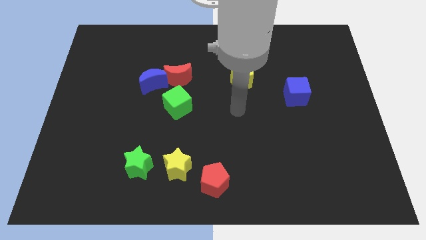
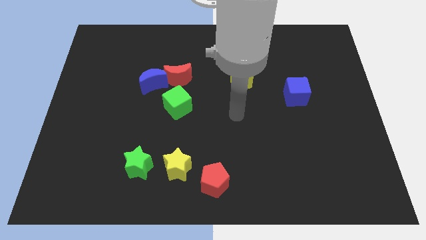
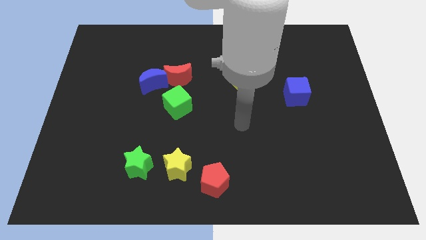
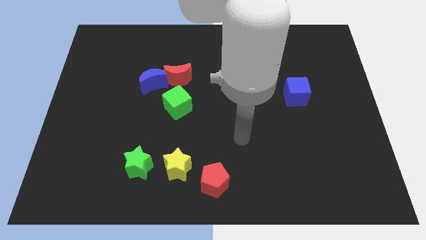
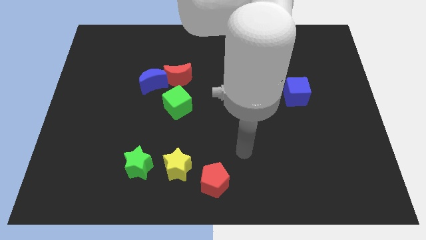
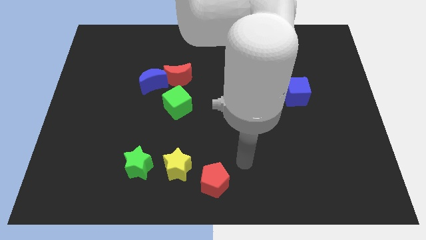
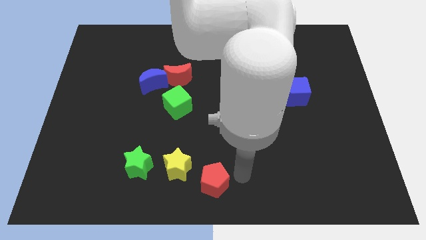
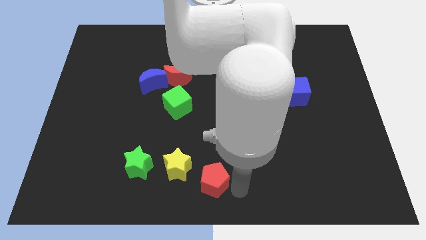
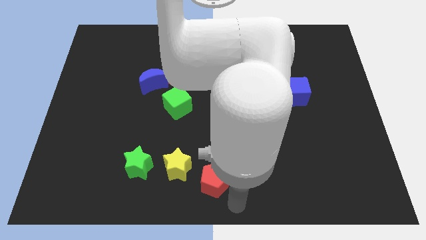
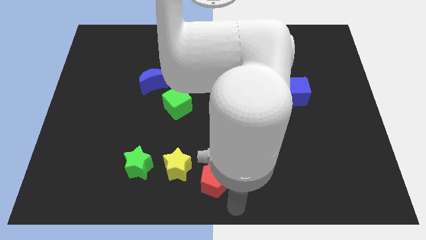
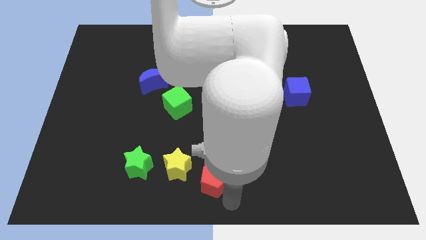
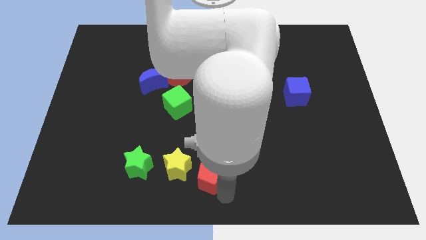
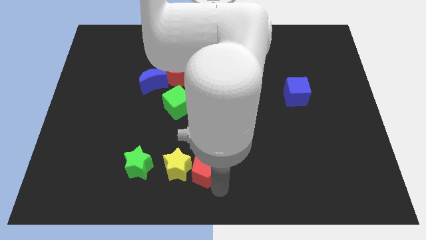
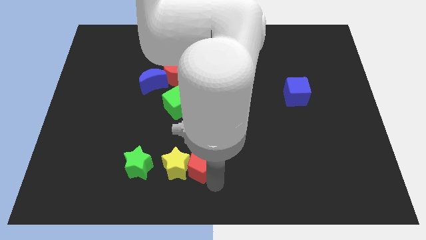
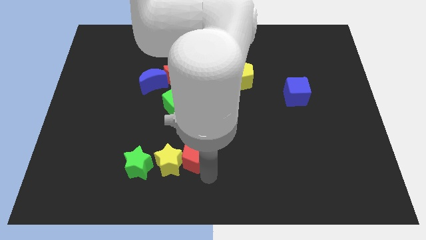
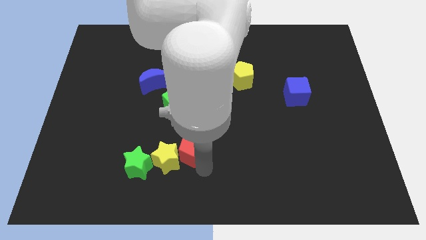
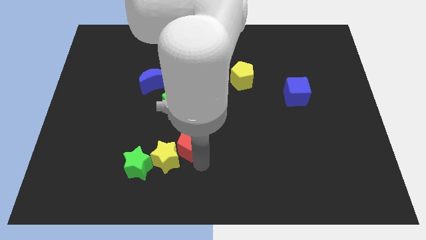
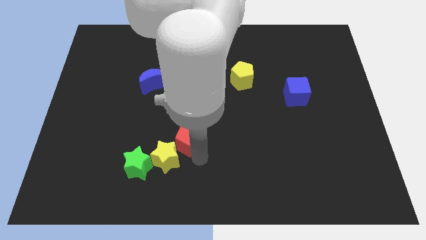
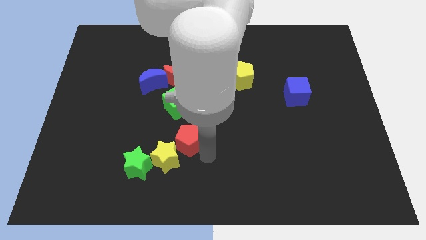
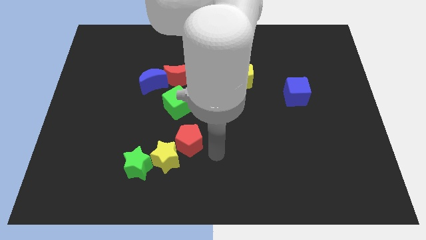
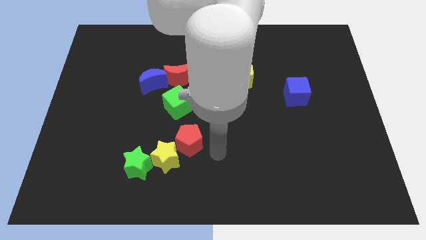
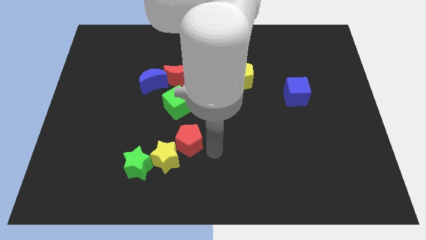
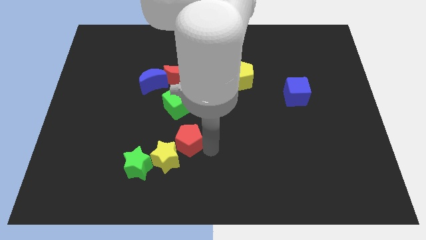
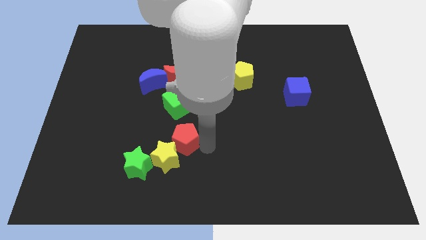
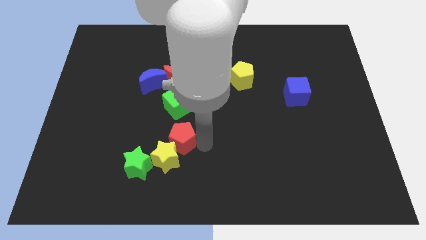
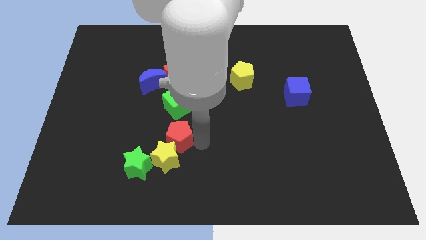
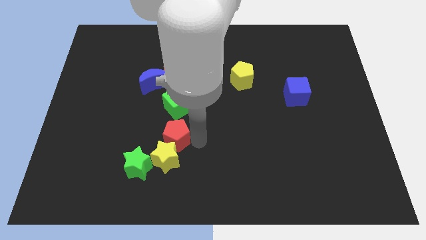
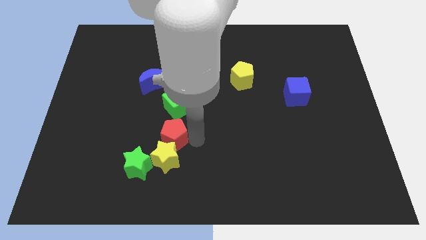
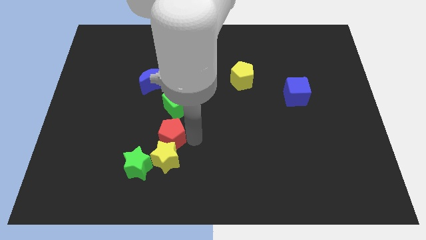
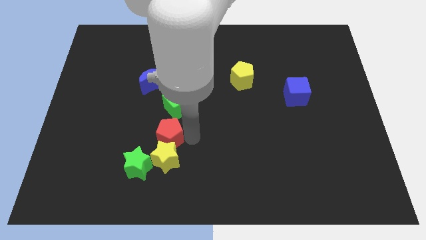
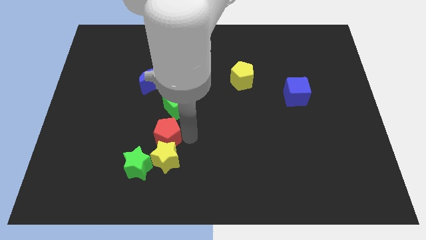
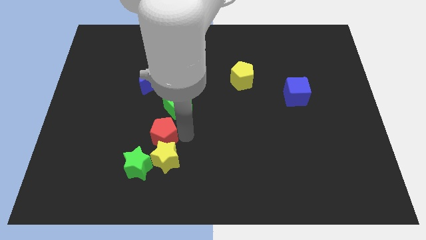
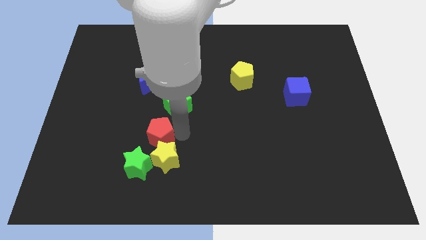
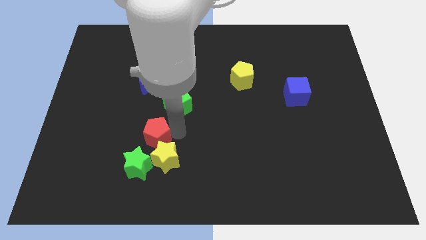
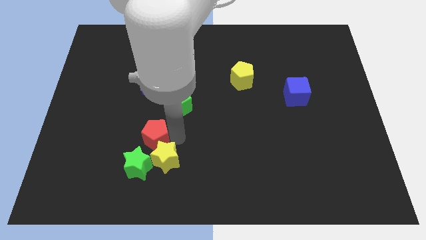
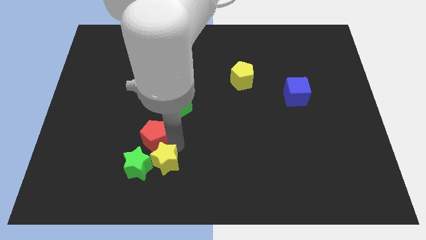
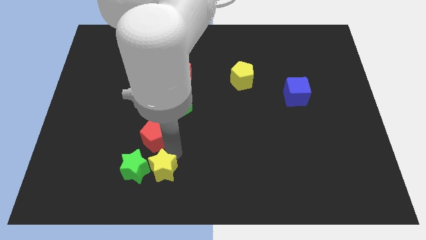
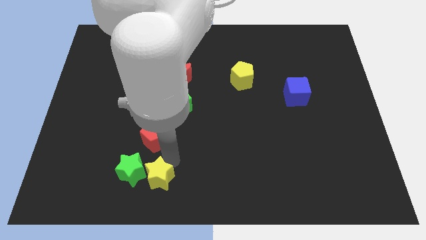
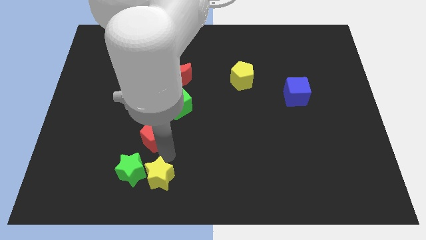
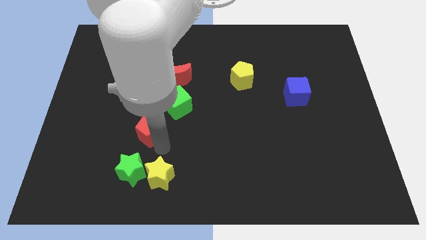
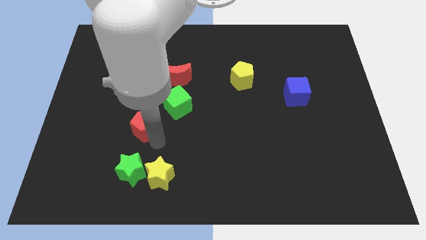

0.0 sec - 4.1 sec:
slide the red pentagon up and to the left diagonally

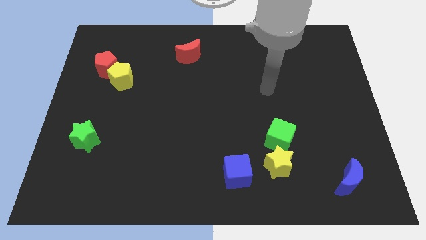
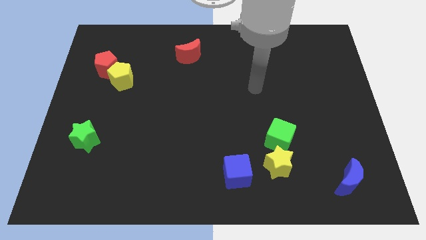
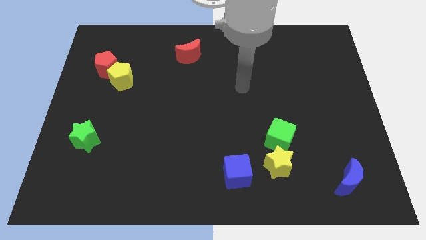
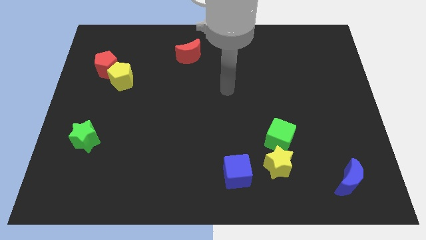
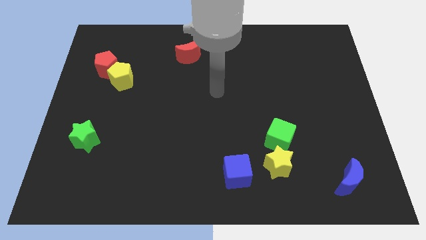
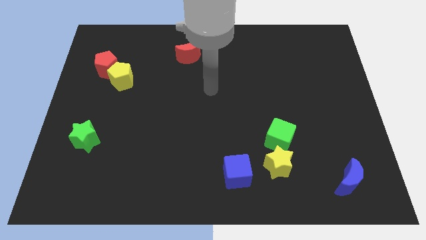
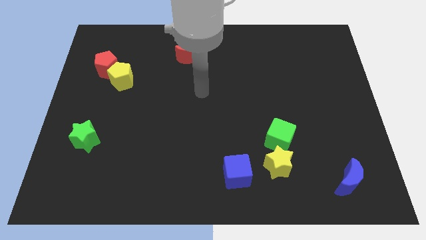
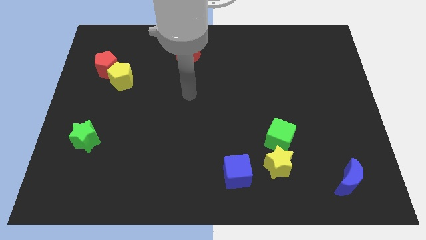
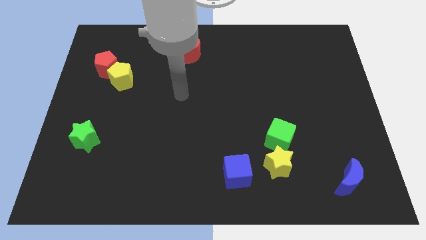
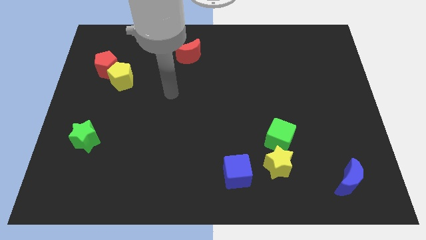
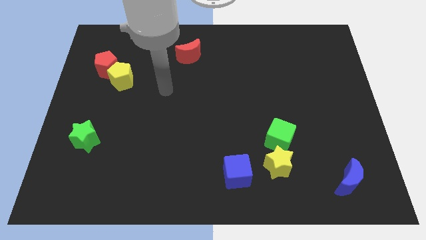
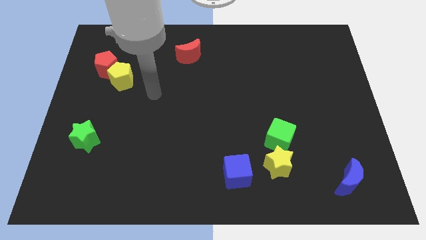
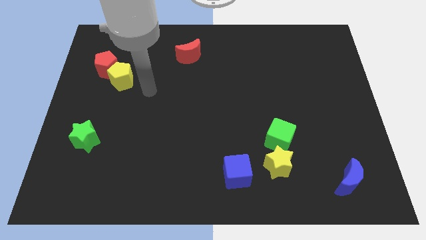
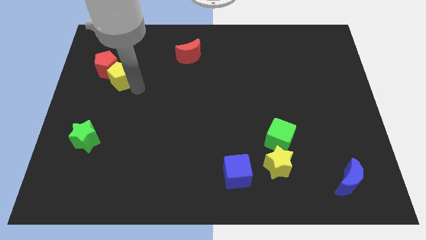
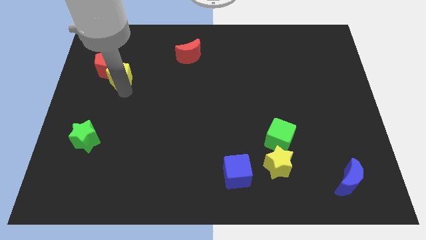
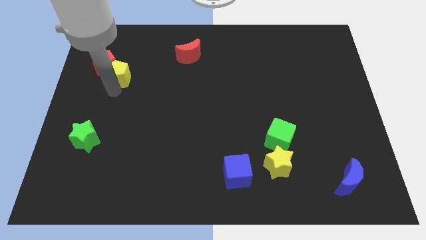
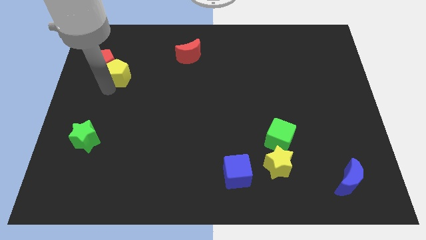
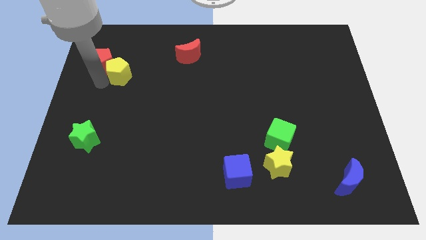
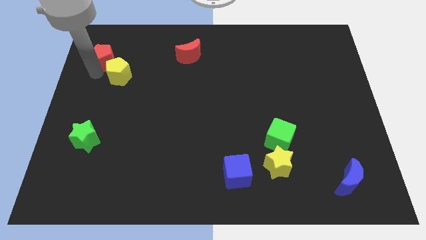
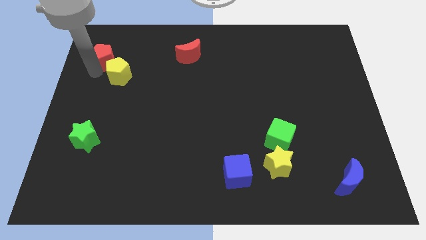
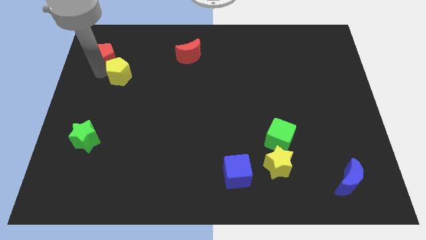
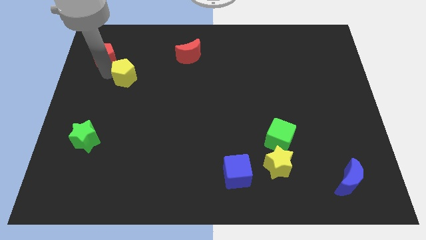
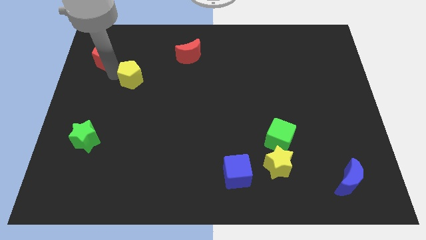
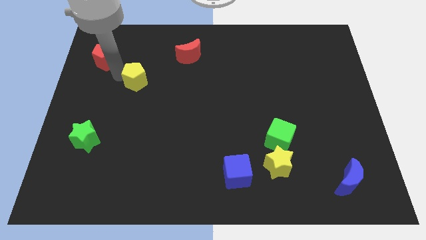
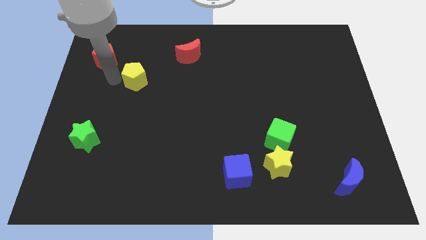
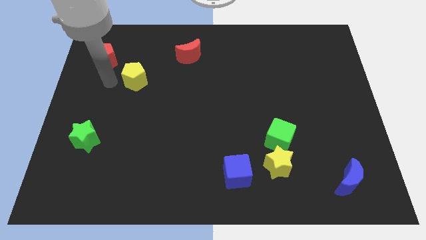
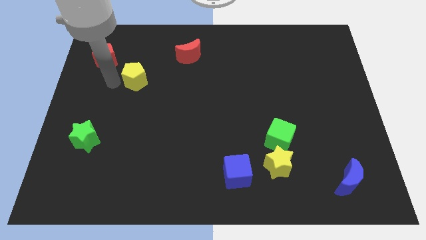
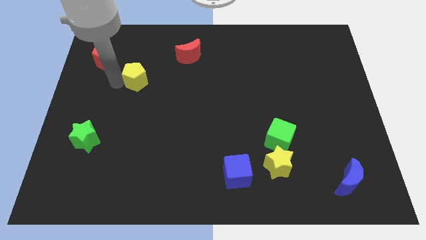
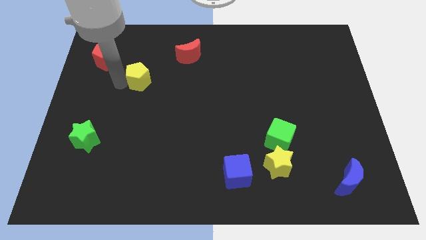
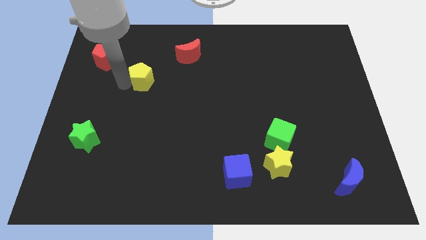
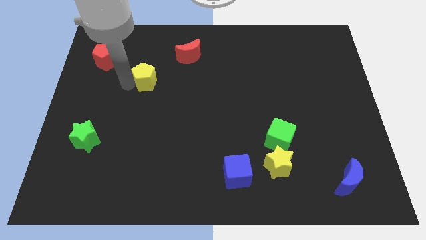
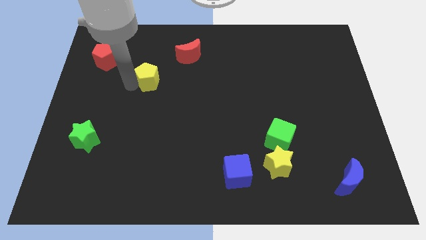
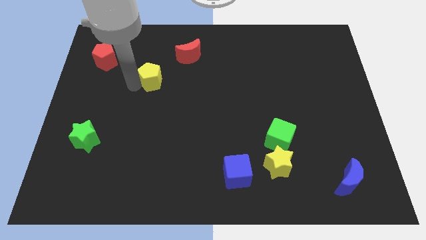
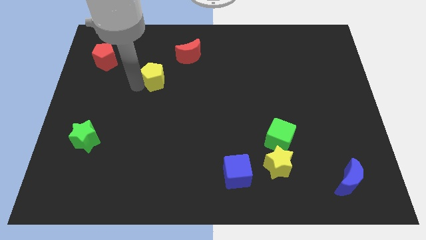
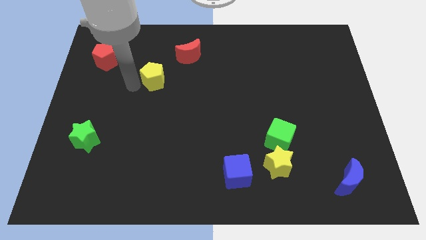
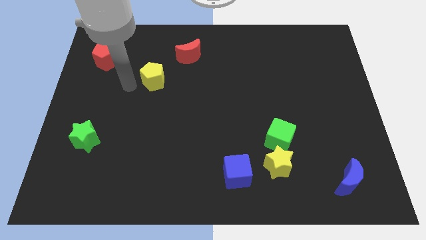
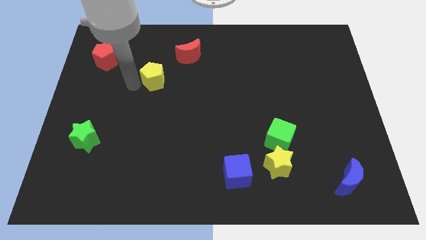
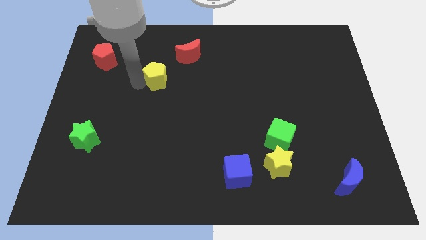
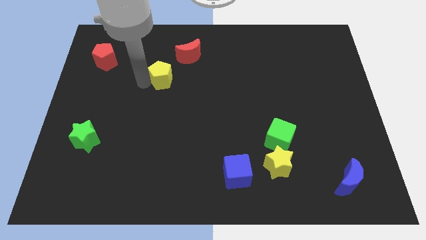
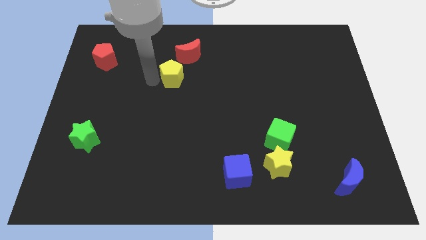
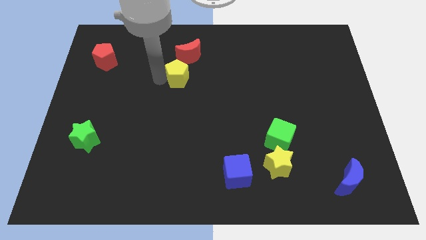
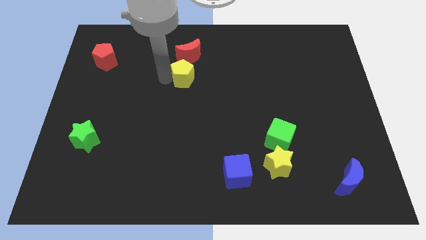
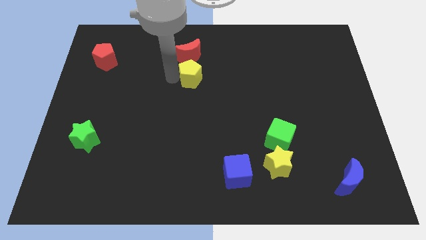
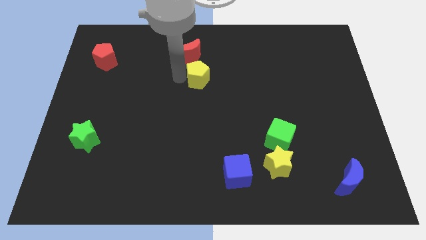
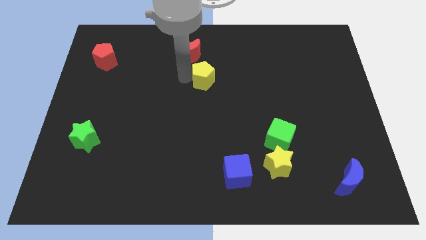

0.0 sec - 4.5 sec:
slide the yellow pentagon right
